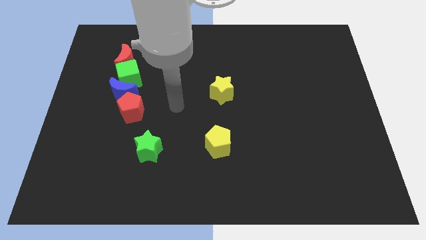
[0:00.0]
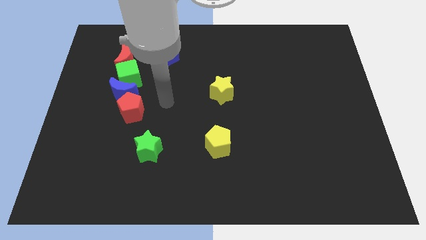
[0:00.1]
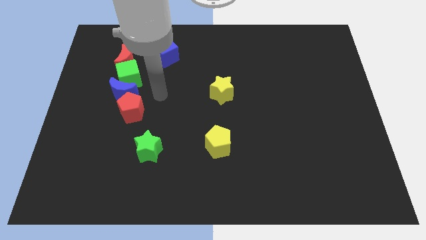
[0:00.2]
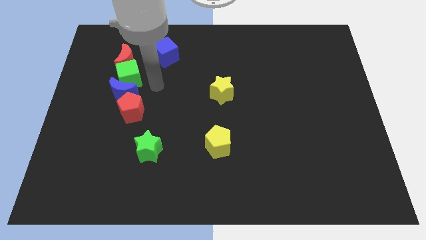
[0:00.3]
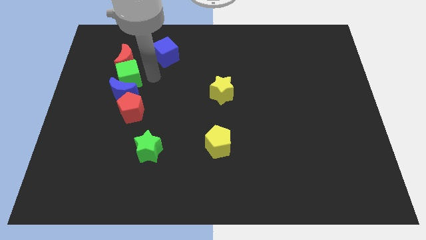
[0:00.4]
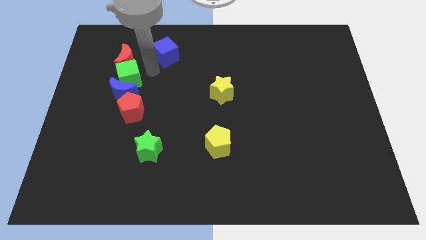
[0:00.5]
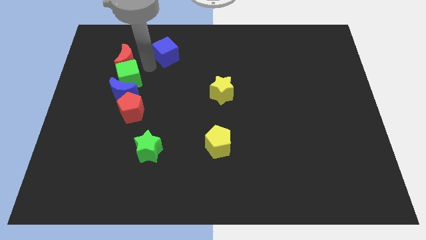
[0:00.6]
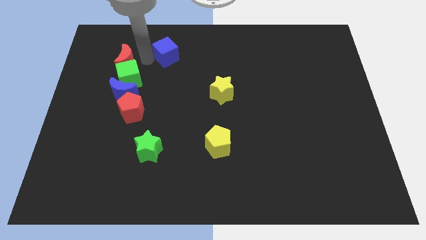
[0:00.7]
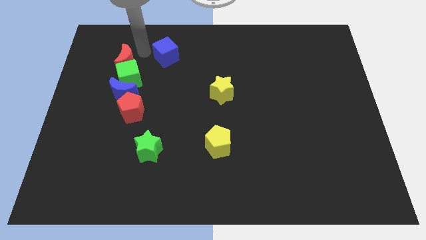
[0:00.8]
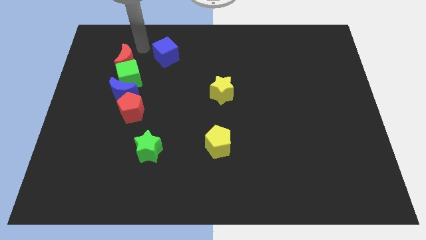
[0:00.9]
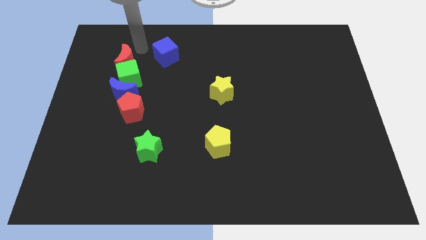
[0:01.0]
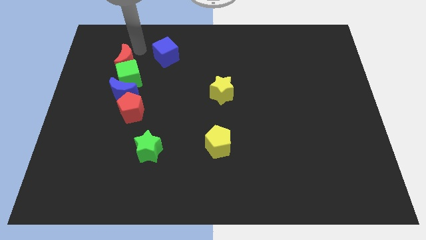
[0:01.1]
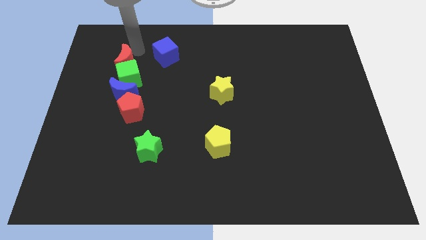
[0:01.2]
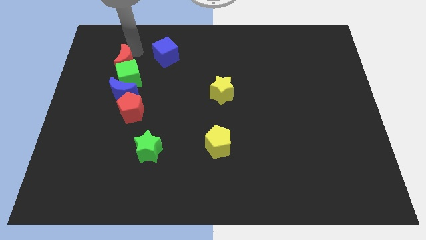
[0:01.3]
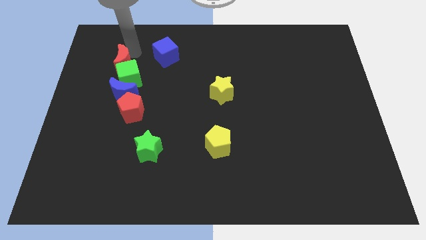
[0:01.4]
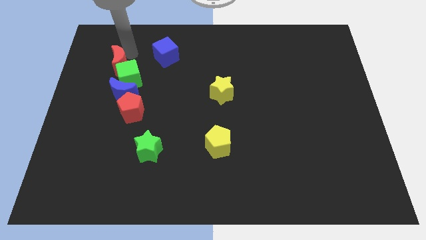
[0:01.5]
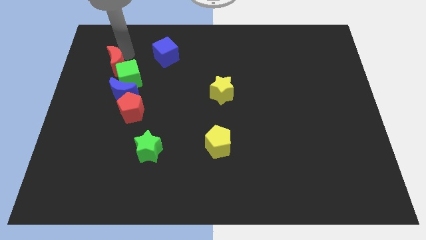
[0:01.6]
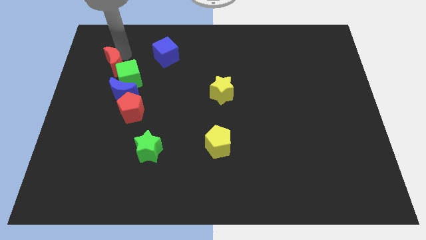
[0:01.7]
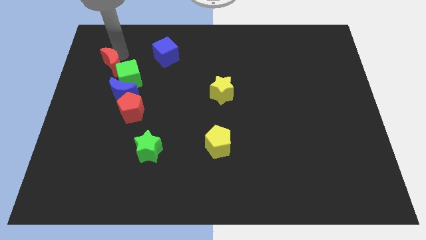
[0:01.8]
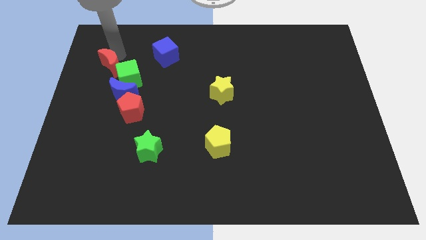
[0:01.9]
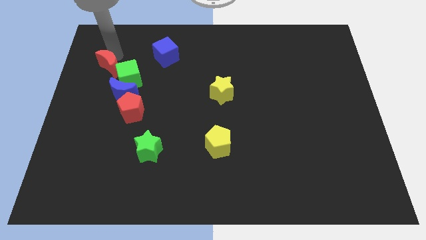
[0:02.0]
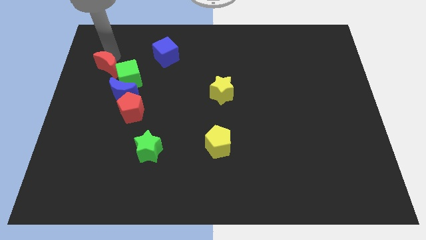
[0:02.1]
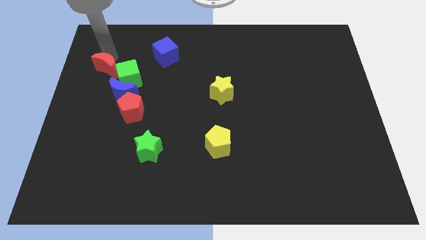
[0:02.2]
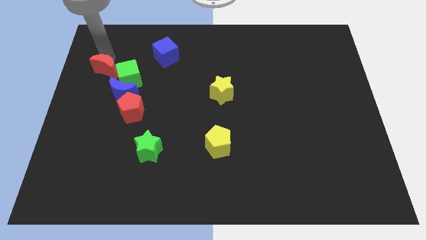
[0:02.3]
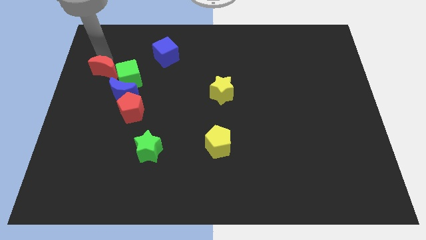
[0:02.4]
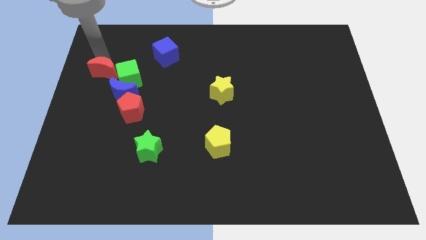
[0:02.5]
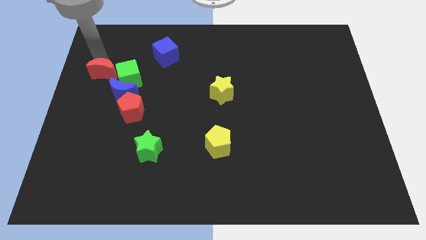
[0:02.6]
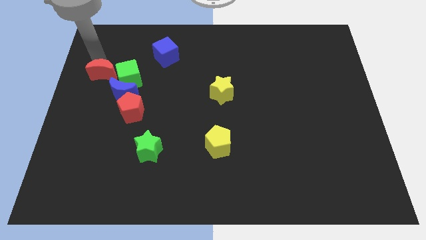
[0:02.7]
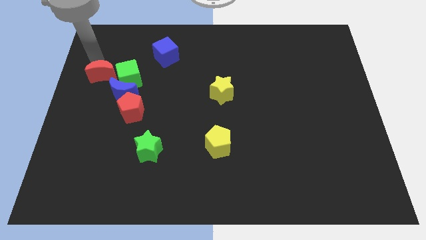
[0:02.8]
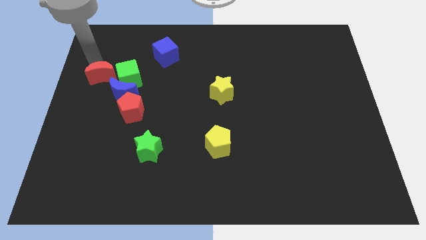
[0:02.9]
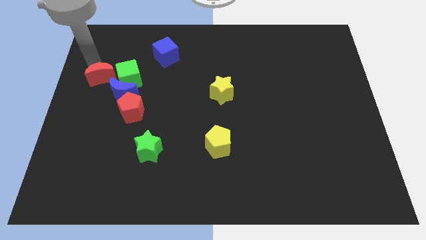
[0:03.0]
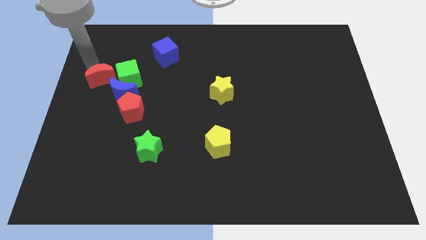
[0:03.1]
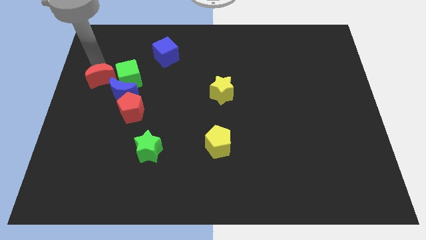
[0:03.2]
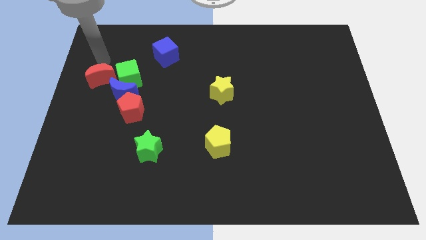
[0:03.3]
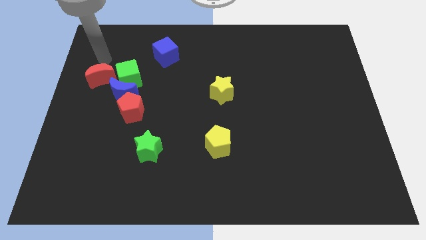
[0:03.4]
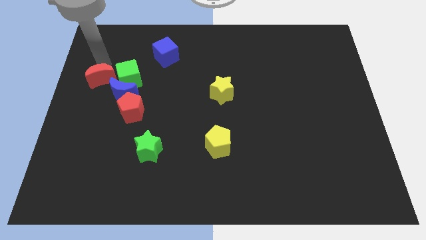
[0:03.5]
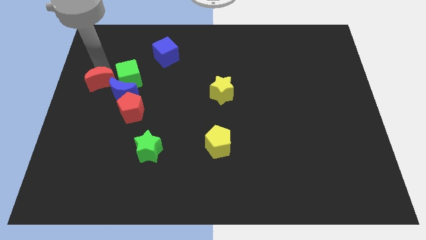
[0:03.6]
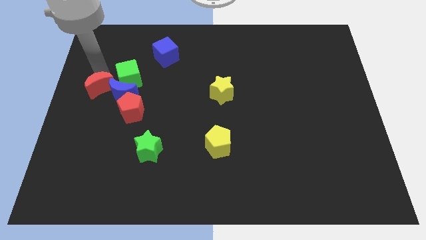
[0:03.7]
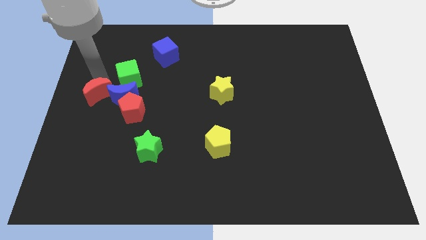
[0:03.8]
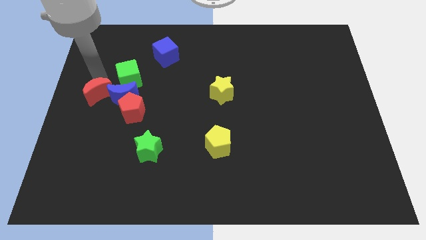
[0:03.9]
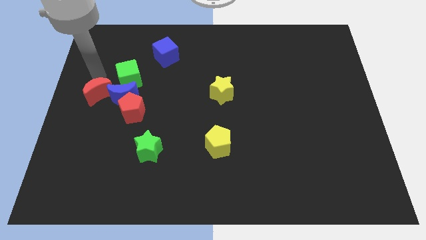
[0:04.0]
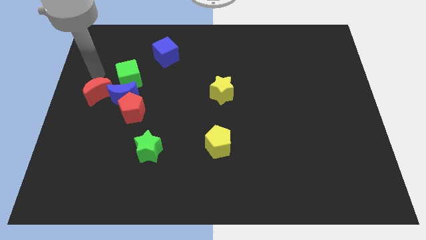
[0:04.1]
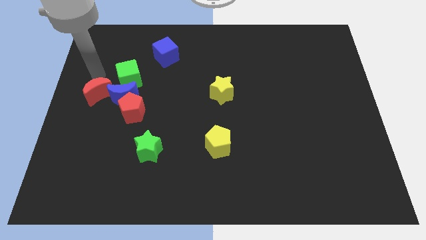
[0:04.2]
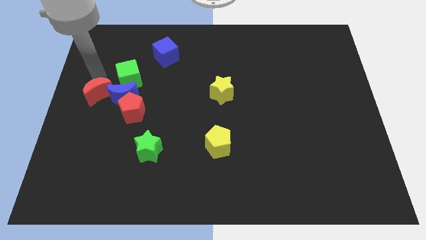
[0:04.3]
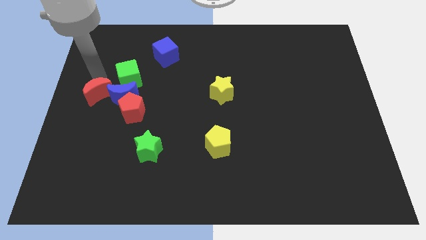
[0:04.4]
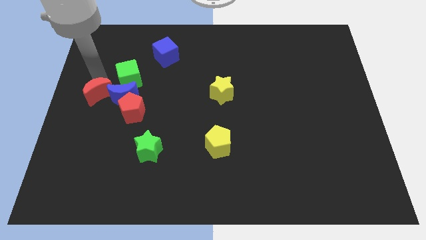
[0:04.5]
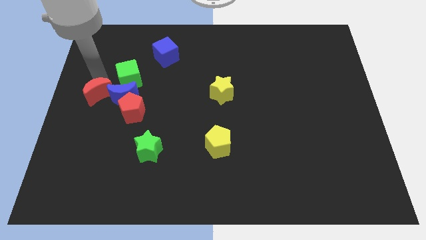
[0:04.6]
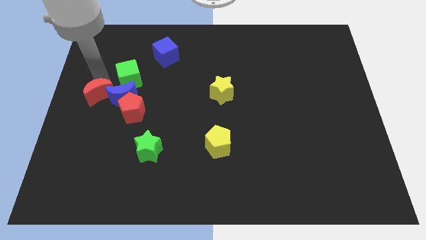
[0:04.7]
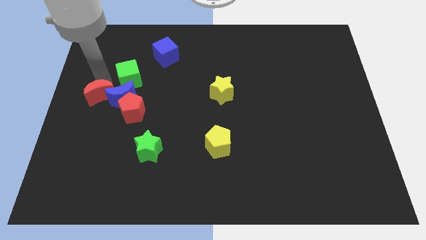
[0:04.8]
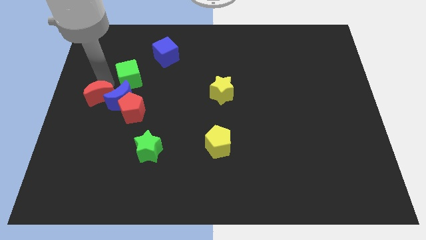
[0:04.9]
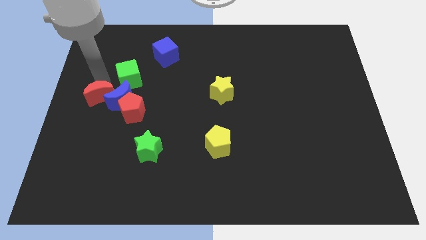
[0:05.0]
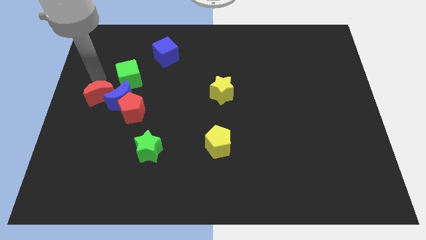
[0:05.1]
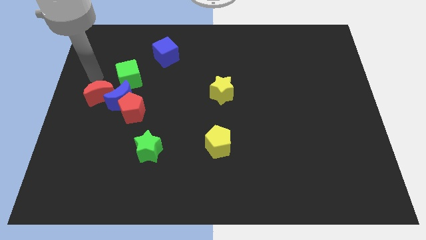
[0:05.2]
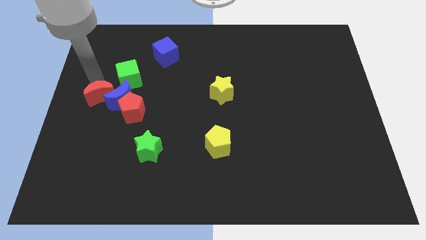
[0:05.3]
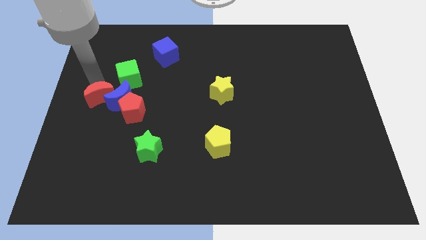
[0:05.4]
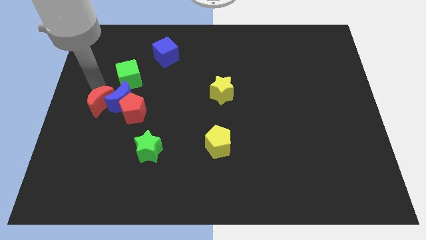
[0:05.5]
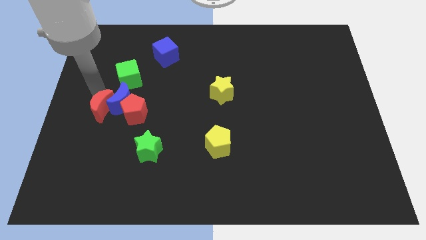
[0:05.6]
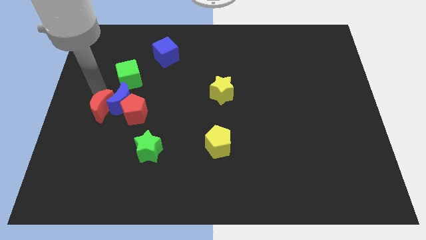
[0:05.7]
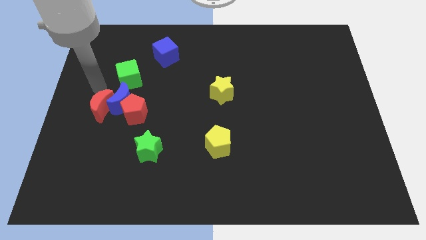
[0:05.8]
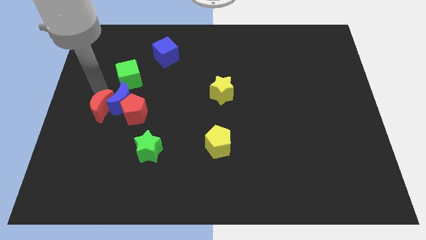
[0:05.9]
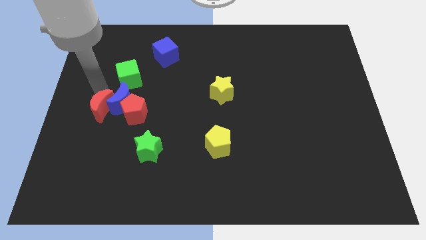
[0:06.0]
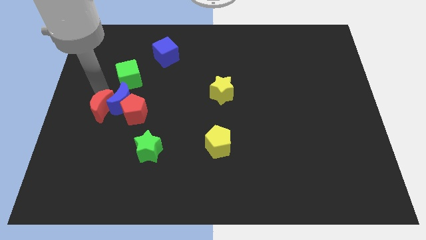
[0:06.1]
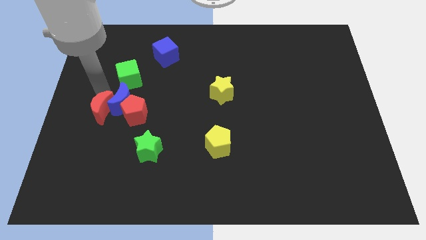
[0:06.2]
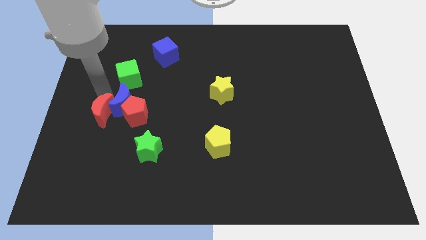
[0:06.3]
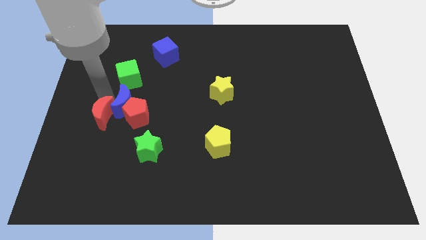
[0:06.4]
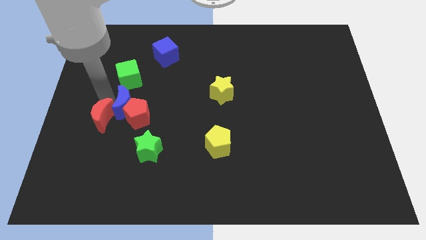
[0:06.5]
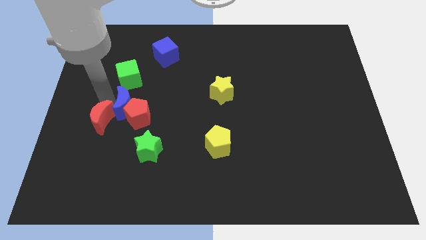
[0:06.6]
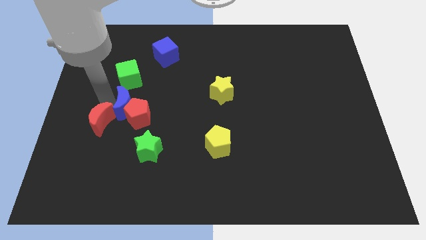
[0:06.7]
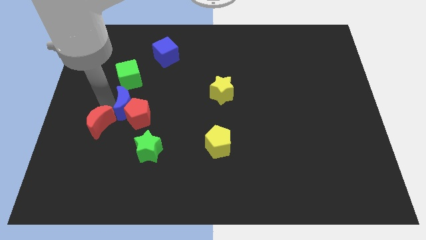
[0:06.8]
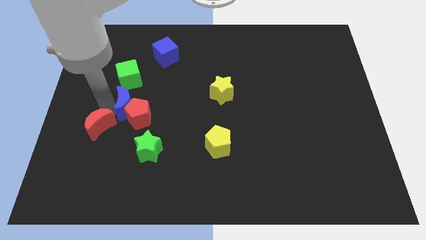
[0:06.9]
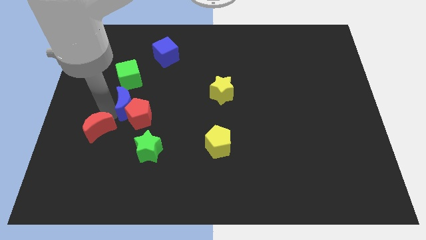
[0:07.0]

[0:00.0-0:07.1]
move the red moon downwards

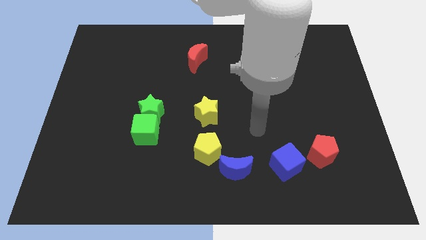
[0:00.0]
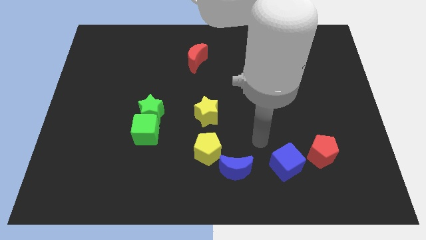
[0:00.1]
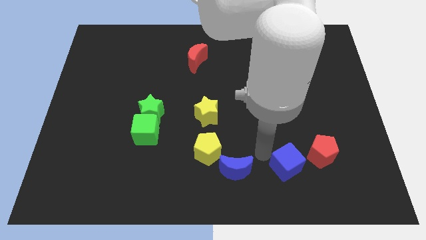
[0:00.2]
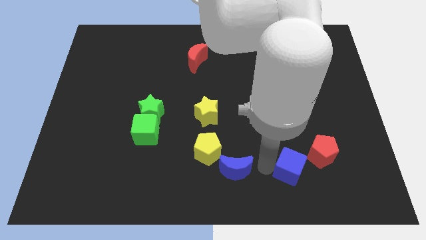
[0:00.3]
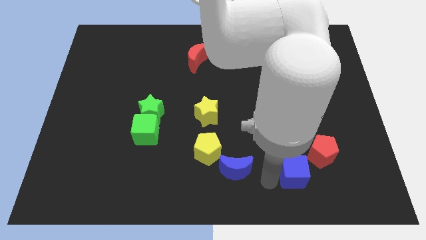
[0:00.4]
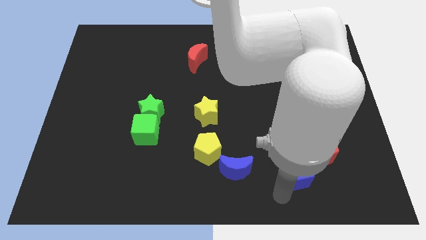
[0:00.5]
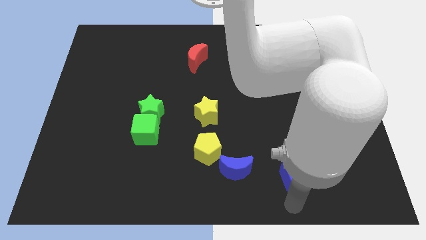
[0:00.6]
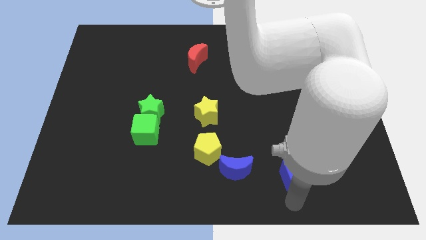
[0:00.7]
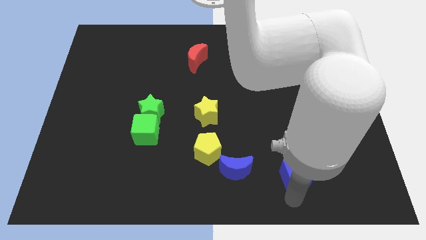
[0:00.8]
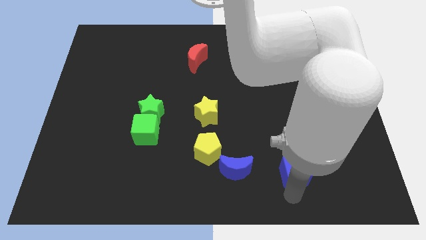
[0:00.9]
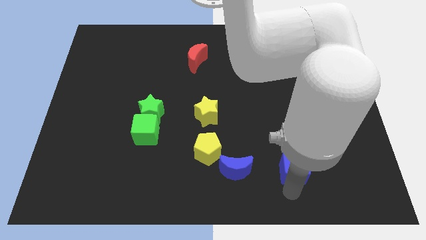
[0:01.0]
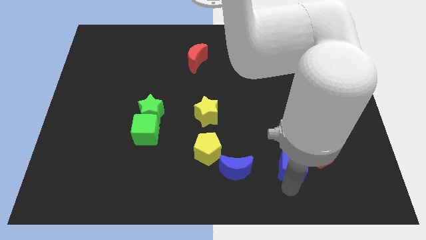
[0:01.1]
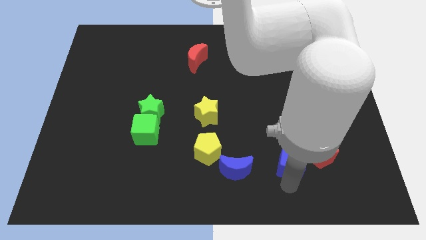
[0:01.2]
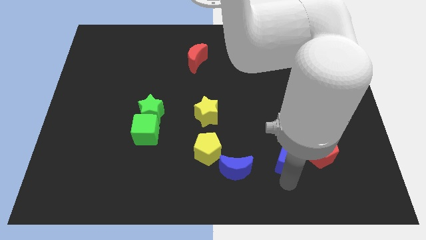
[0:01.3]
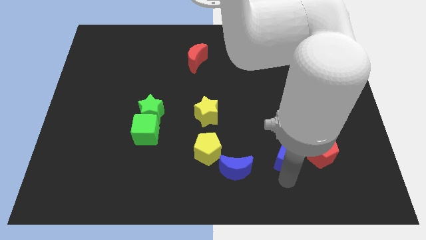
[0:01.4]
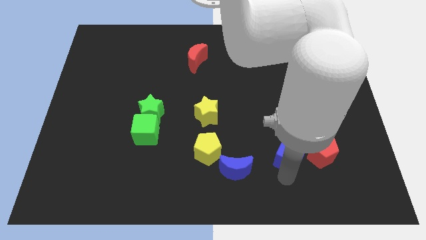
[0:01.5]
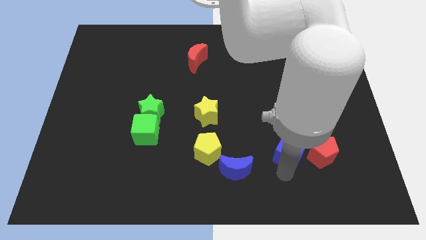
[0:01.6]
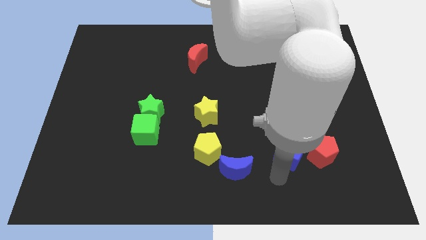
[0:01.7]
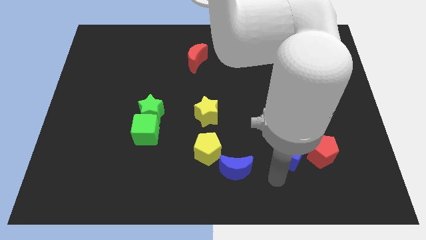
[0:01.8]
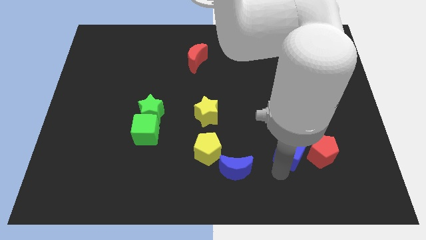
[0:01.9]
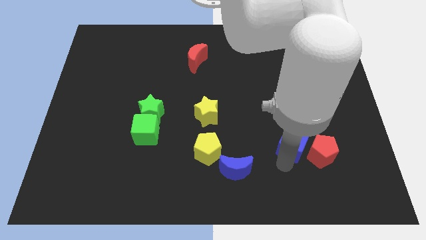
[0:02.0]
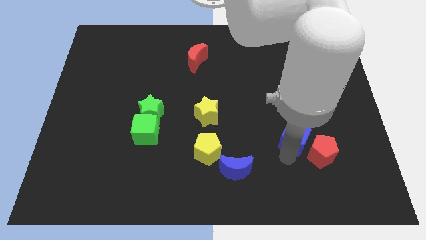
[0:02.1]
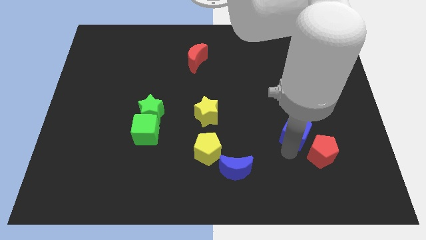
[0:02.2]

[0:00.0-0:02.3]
push the blue cube diagonally up and right a bit
